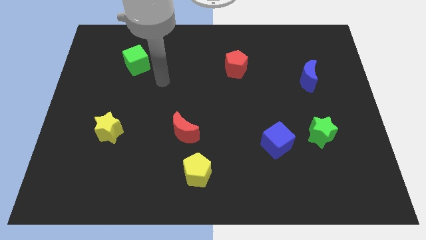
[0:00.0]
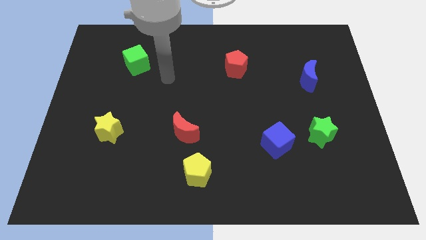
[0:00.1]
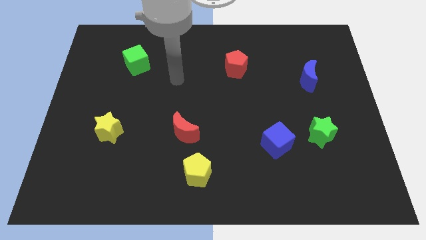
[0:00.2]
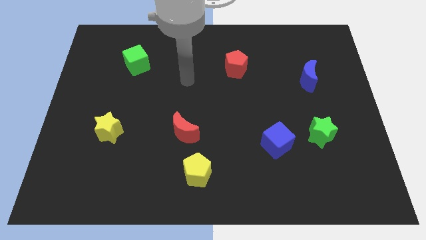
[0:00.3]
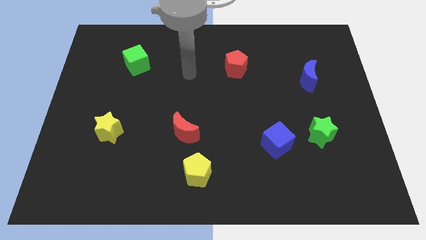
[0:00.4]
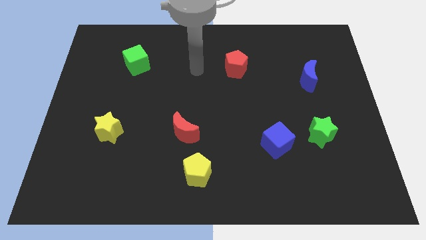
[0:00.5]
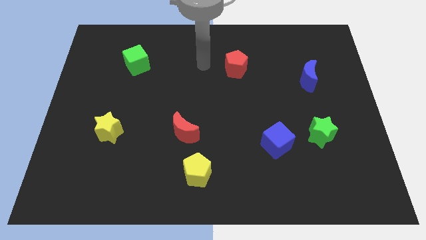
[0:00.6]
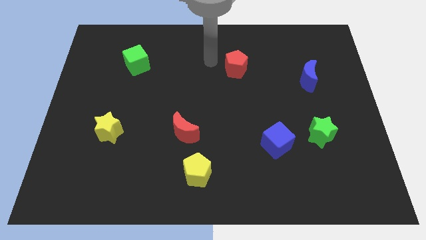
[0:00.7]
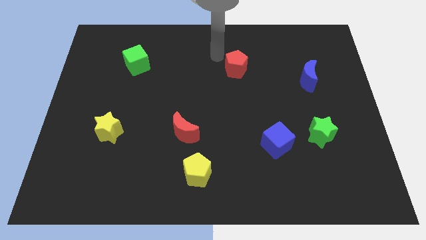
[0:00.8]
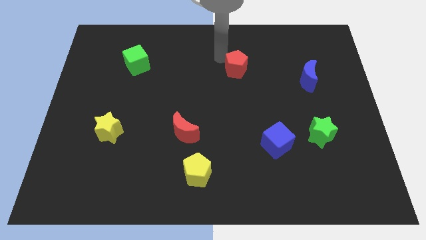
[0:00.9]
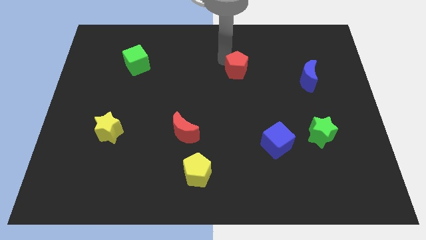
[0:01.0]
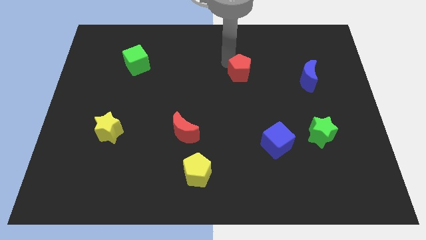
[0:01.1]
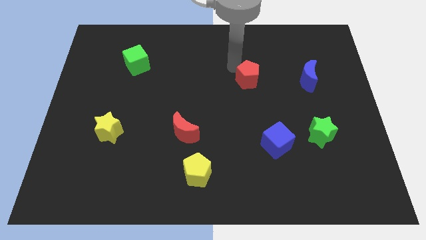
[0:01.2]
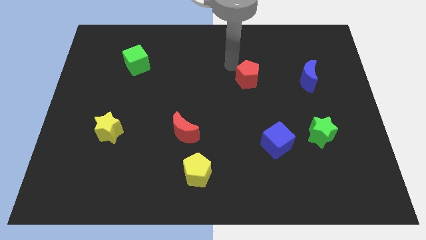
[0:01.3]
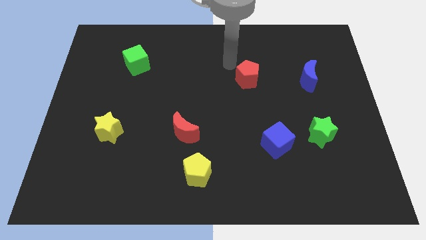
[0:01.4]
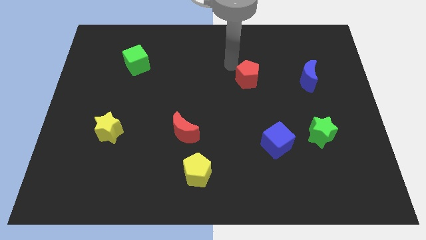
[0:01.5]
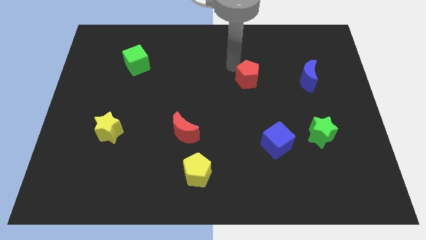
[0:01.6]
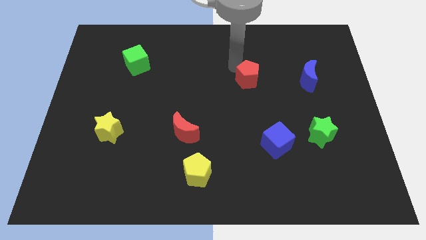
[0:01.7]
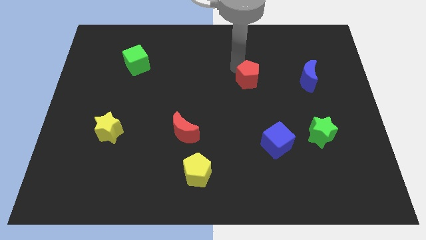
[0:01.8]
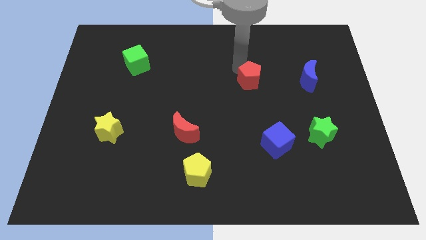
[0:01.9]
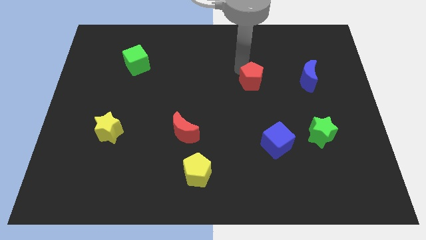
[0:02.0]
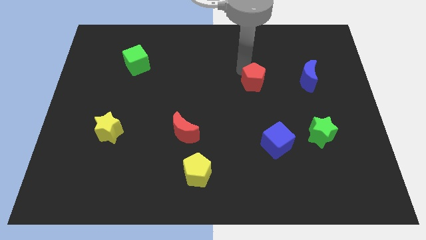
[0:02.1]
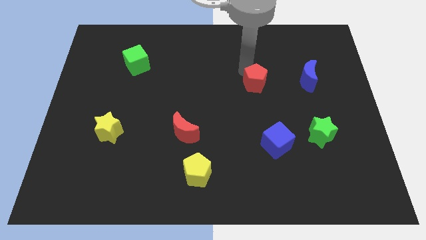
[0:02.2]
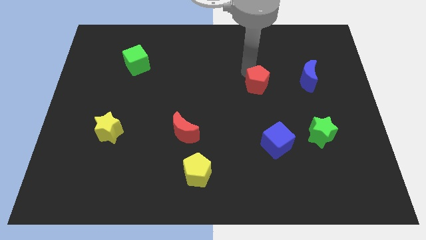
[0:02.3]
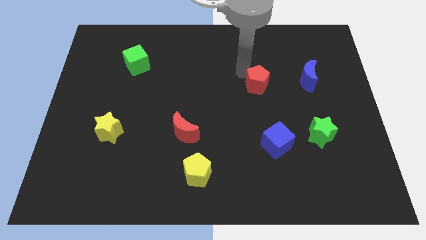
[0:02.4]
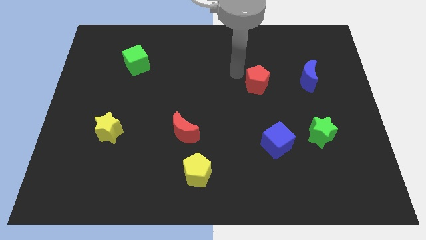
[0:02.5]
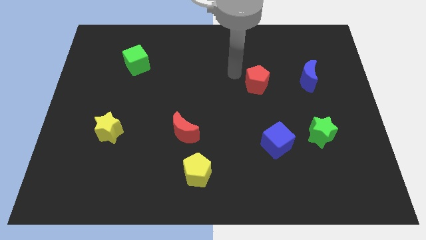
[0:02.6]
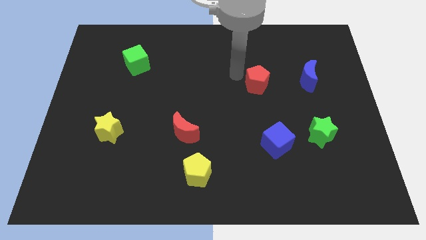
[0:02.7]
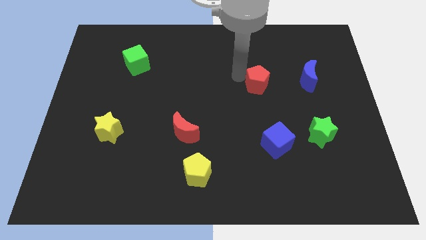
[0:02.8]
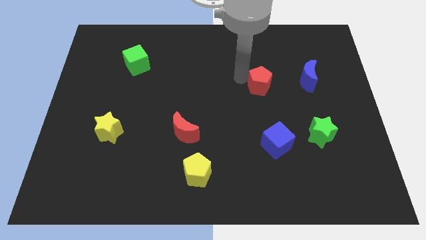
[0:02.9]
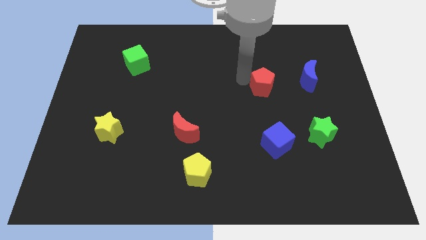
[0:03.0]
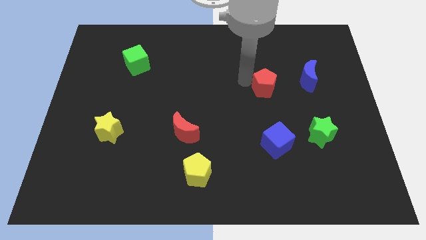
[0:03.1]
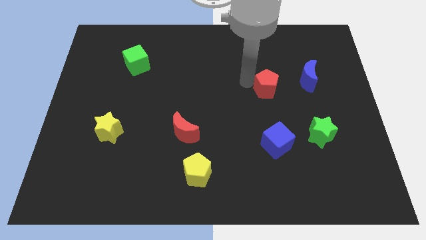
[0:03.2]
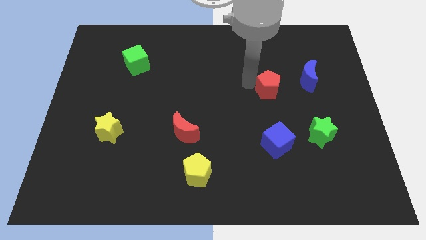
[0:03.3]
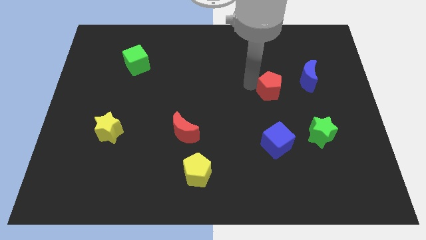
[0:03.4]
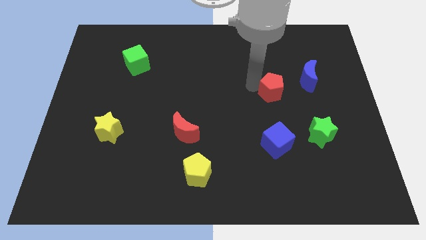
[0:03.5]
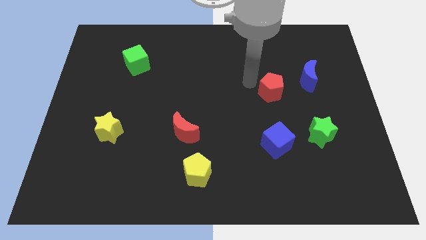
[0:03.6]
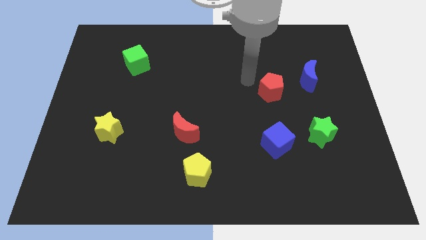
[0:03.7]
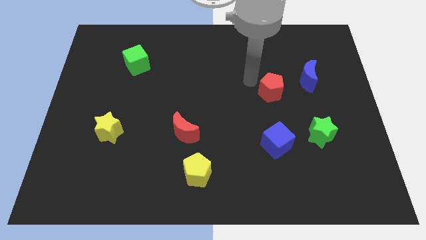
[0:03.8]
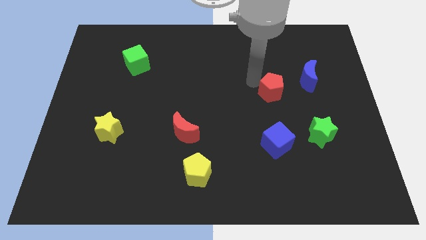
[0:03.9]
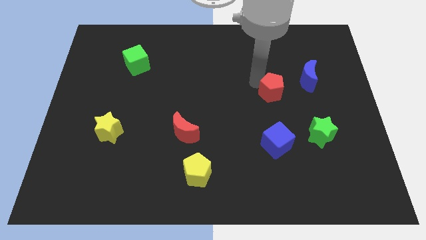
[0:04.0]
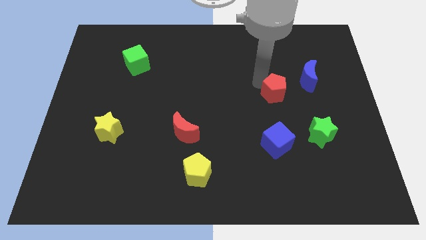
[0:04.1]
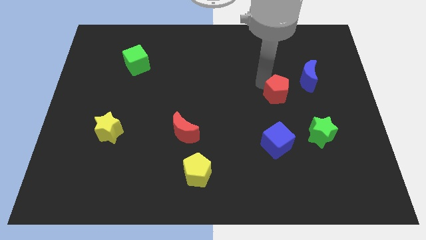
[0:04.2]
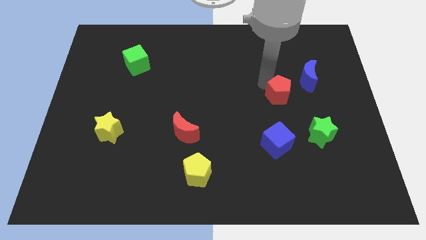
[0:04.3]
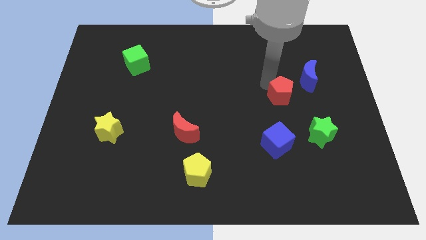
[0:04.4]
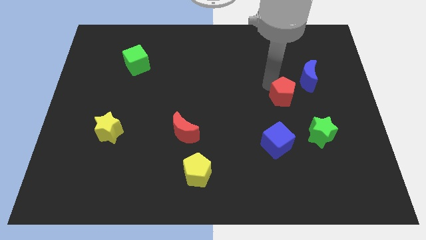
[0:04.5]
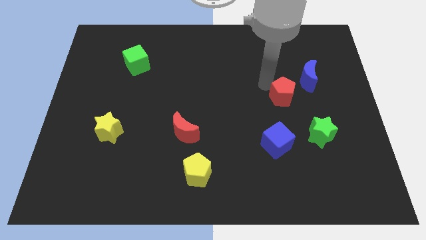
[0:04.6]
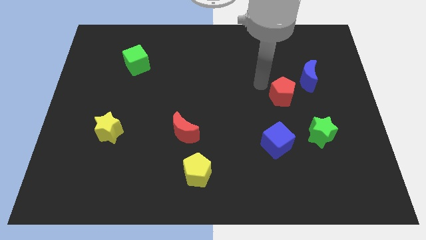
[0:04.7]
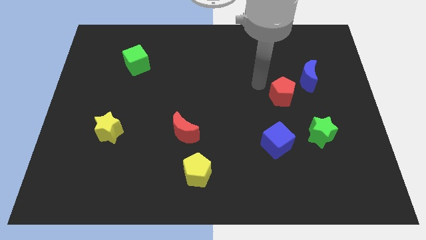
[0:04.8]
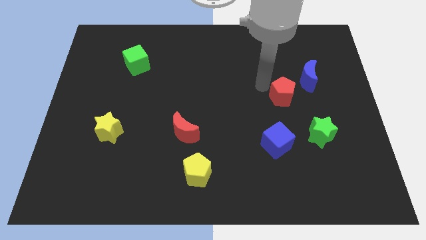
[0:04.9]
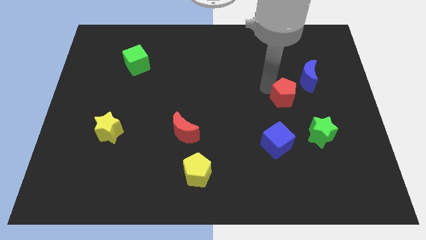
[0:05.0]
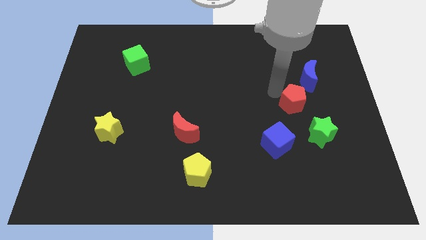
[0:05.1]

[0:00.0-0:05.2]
put the red pentagon to the bottom of the blue moon

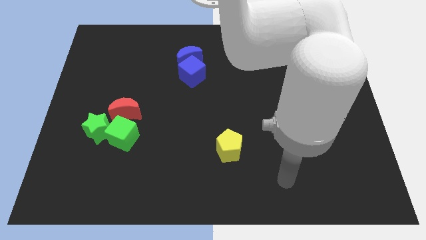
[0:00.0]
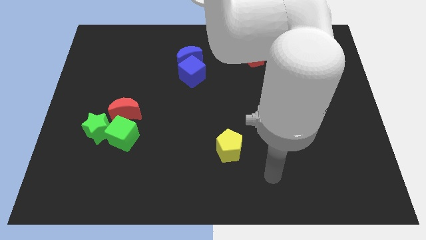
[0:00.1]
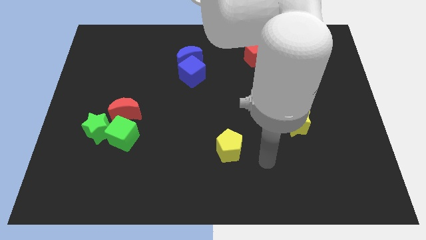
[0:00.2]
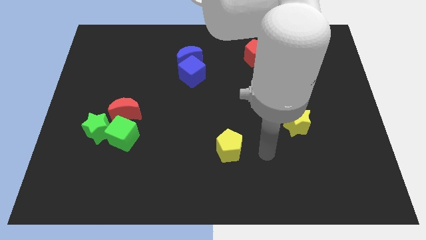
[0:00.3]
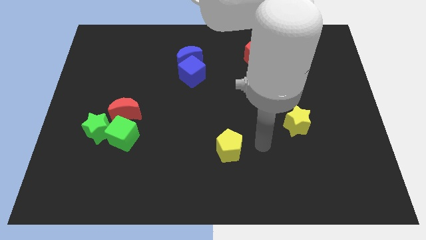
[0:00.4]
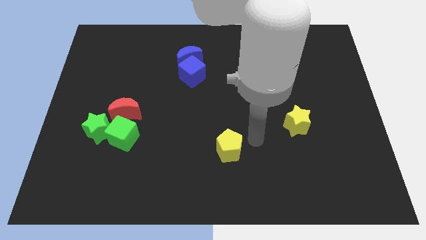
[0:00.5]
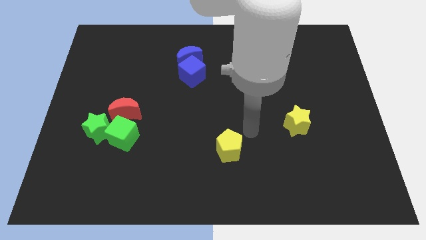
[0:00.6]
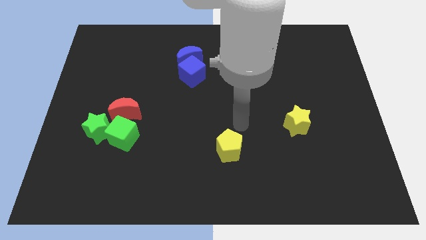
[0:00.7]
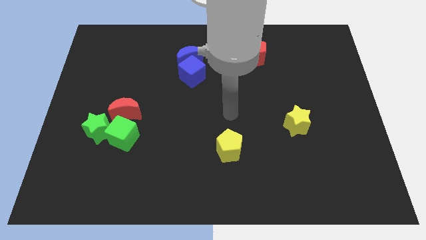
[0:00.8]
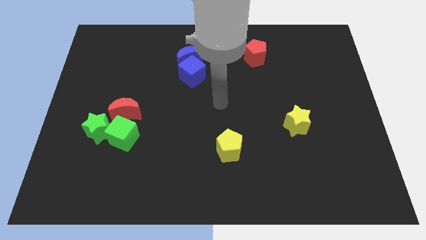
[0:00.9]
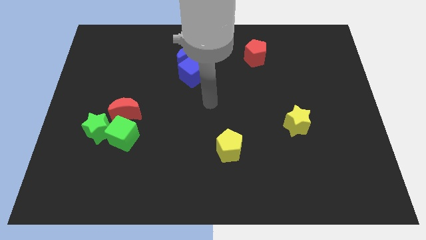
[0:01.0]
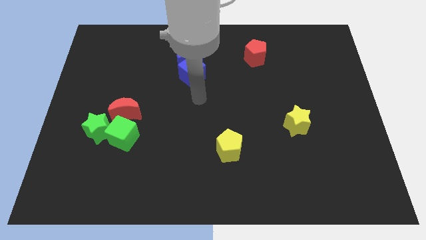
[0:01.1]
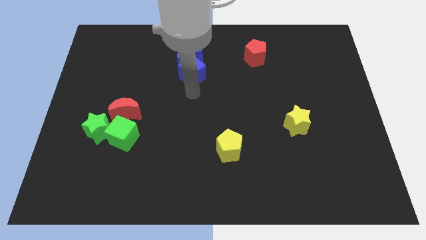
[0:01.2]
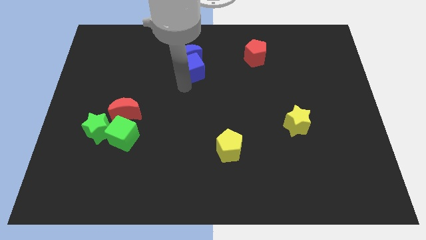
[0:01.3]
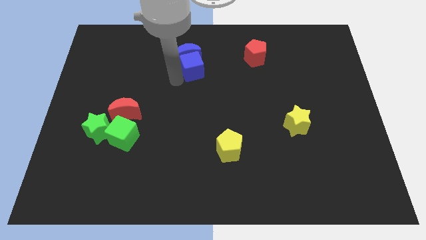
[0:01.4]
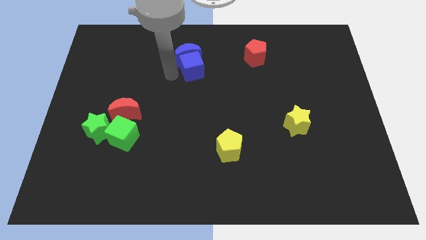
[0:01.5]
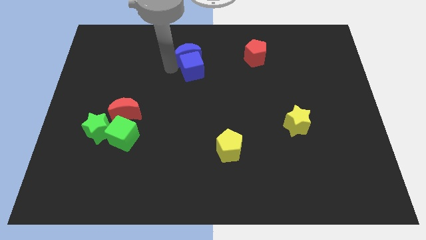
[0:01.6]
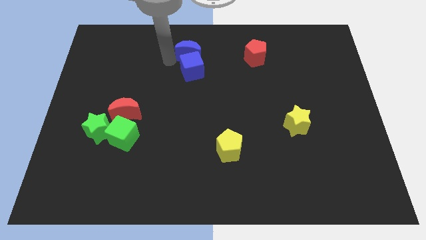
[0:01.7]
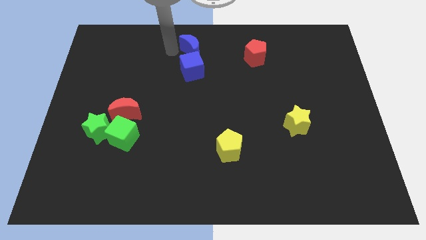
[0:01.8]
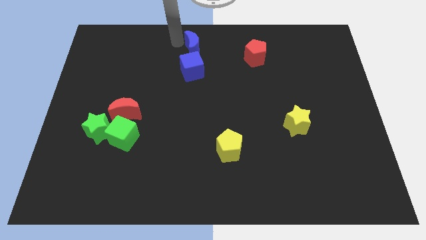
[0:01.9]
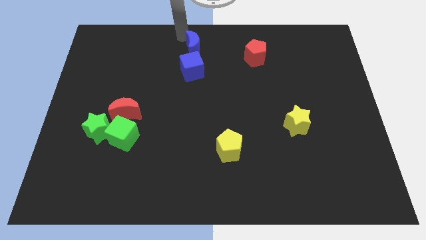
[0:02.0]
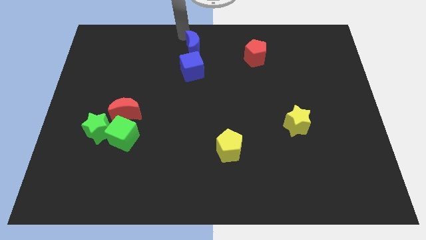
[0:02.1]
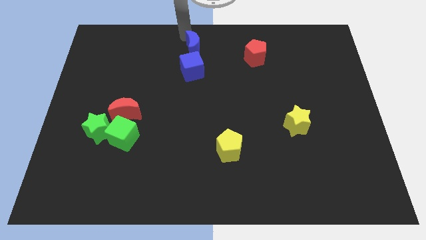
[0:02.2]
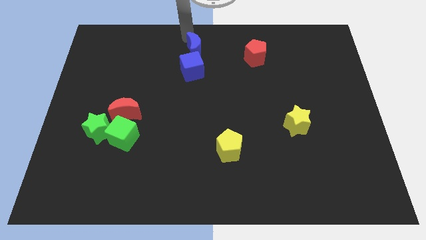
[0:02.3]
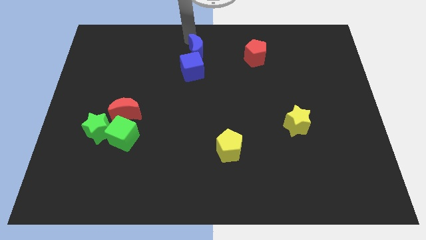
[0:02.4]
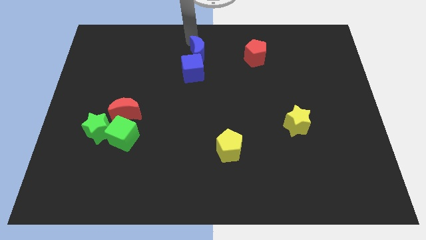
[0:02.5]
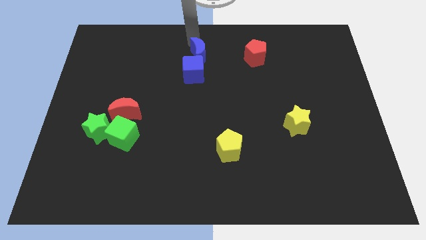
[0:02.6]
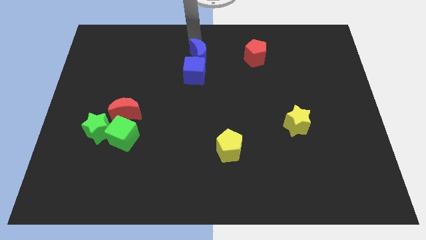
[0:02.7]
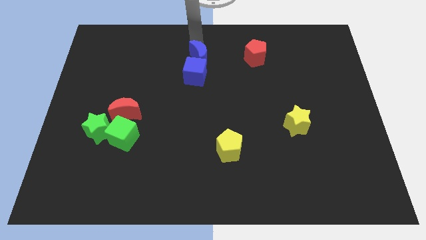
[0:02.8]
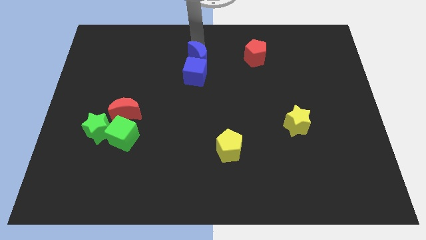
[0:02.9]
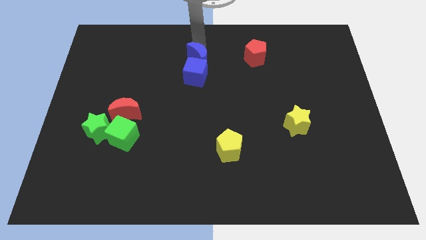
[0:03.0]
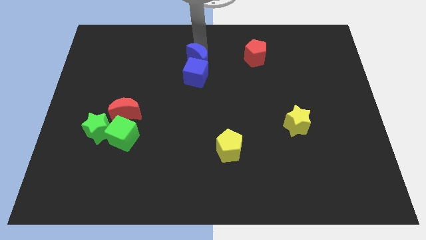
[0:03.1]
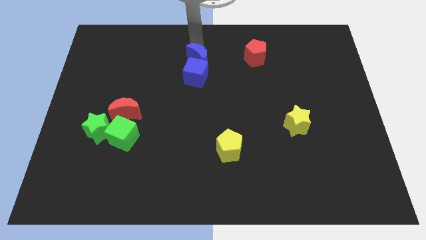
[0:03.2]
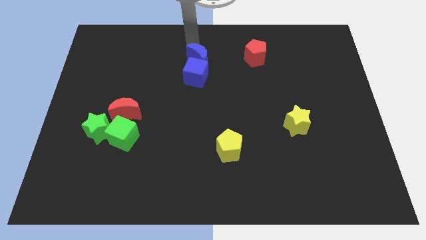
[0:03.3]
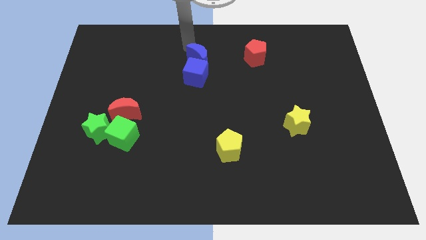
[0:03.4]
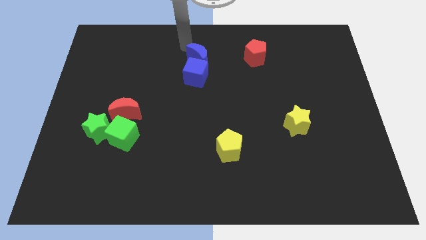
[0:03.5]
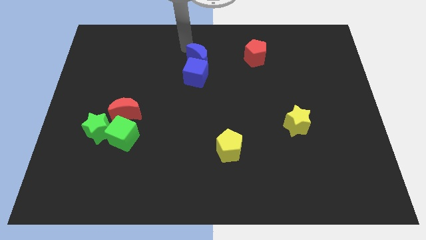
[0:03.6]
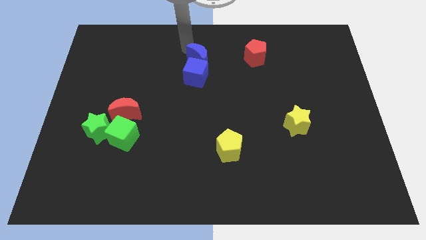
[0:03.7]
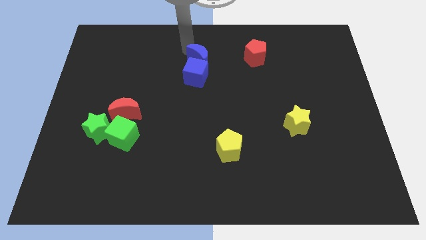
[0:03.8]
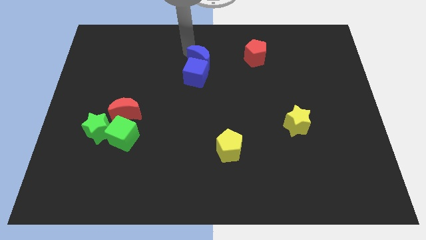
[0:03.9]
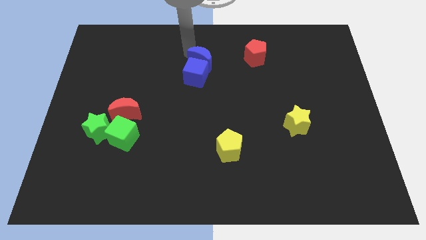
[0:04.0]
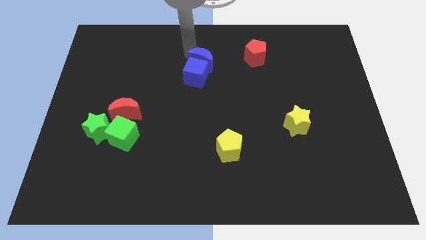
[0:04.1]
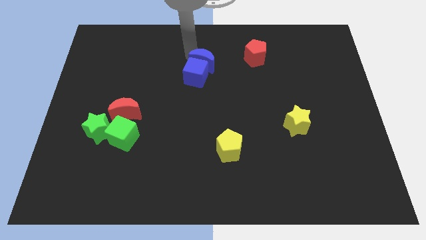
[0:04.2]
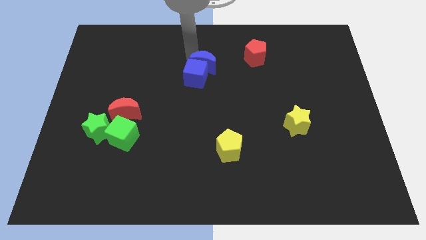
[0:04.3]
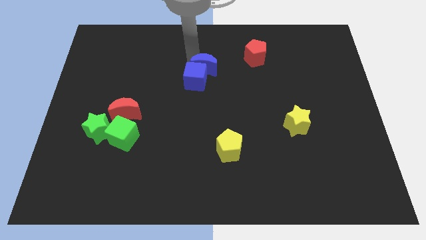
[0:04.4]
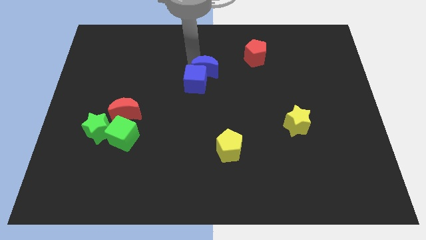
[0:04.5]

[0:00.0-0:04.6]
move the blue moon to the right of the blue cube
